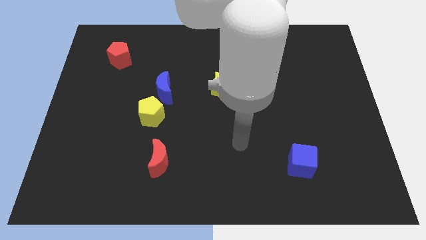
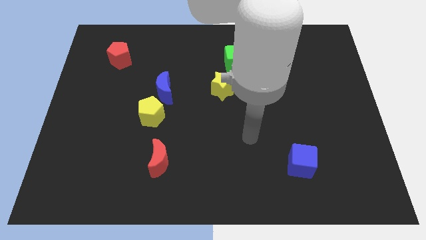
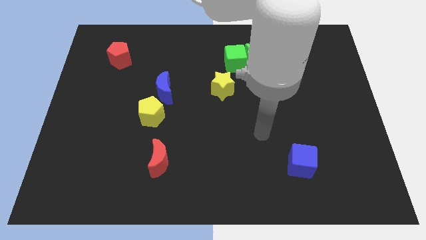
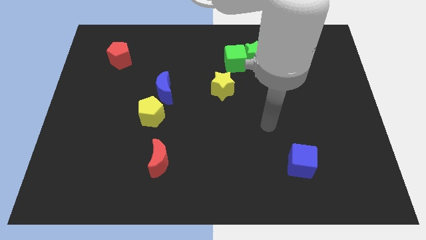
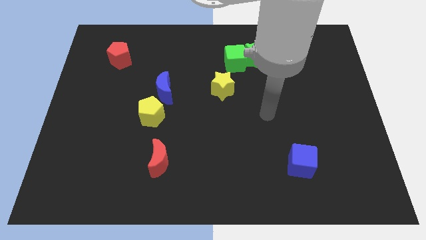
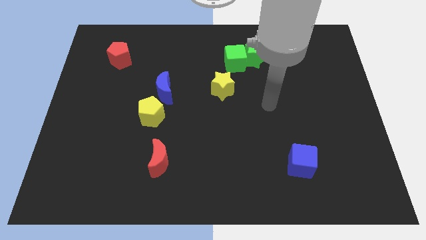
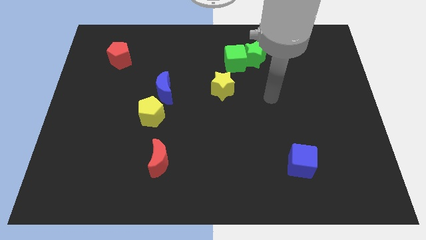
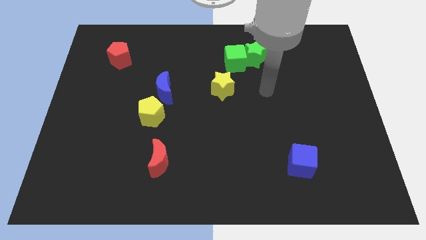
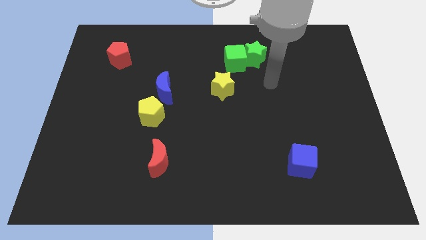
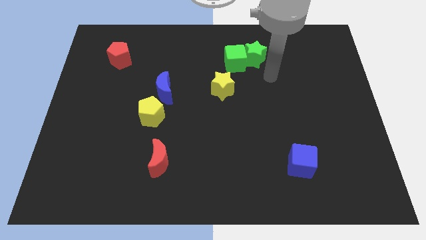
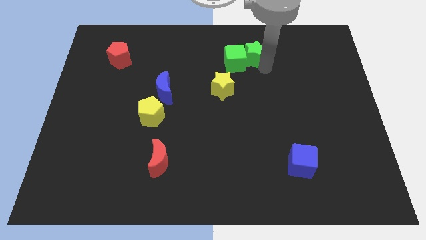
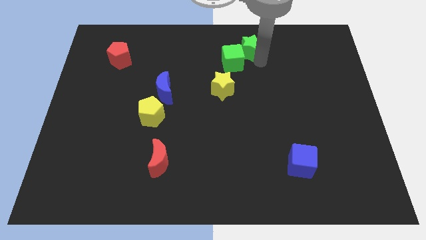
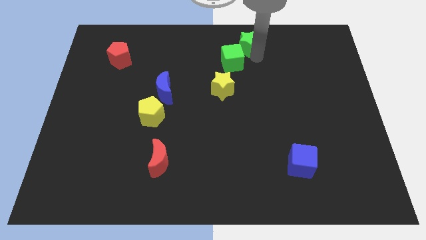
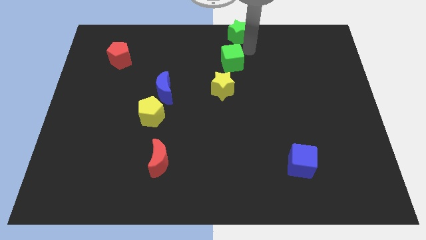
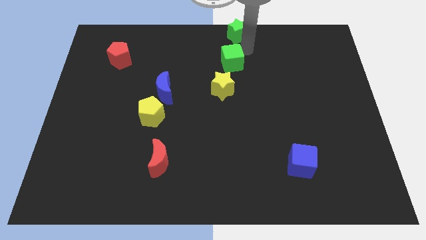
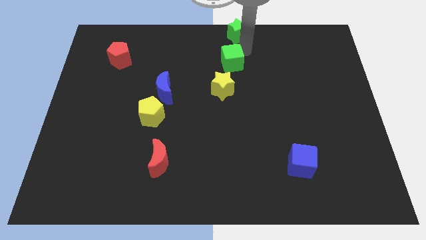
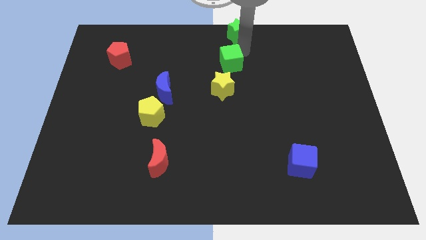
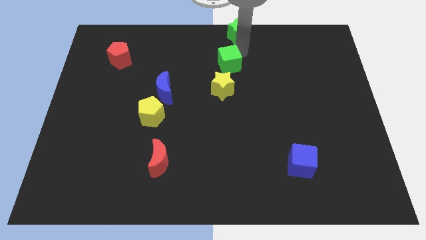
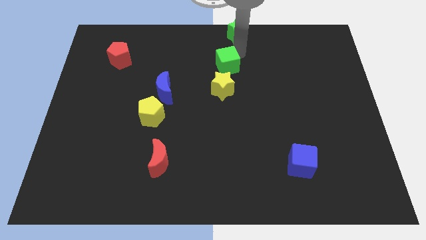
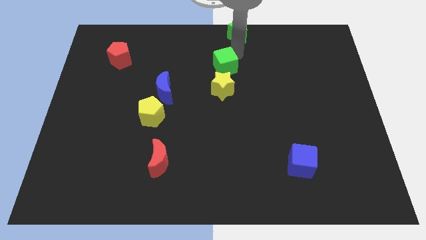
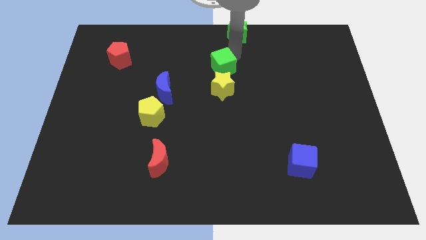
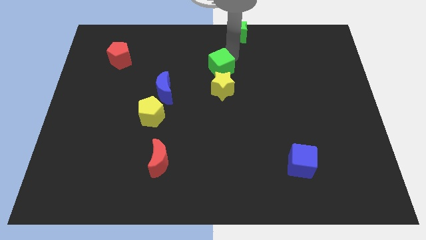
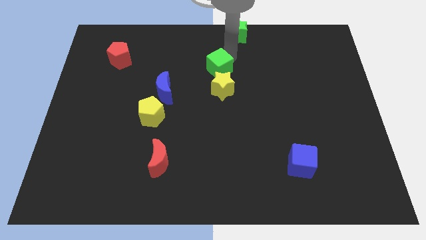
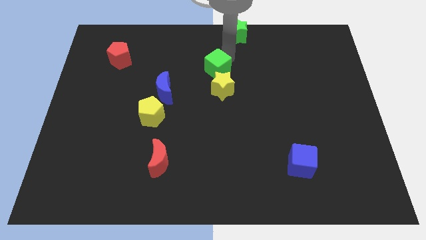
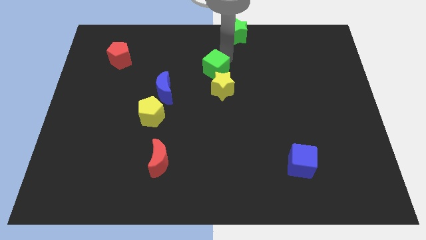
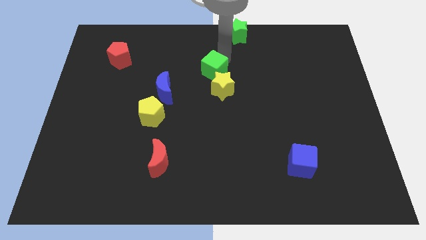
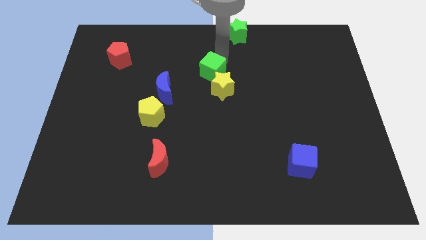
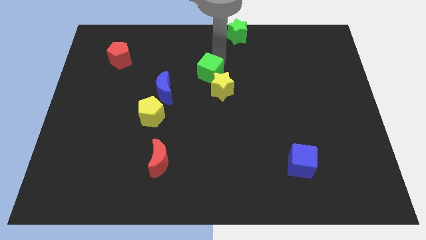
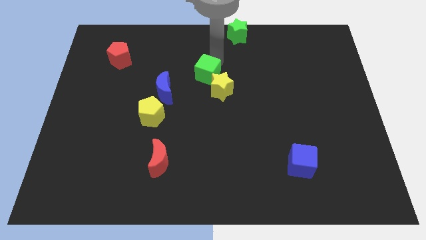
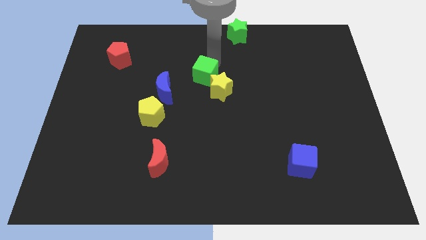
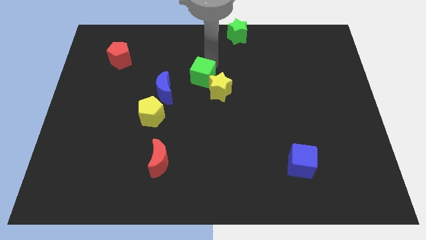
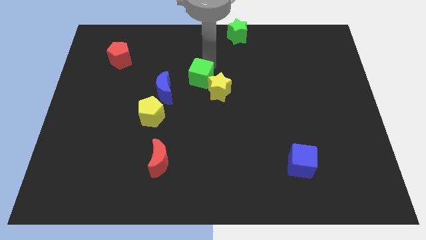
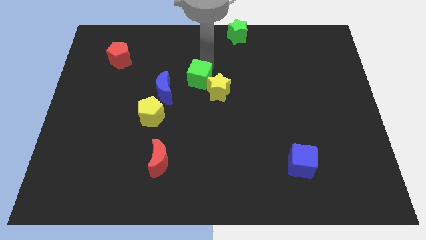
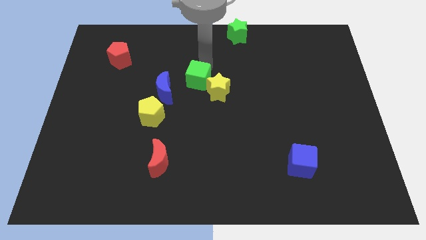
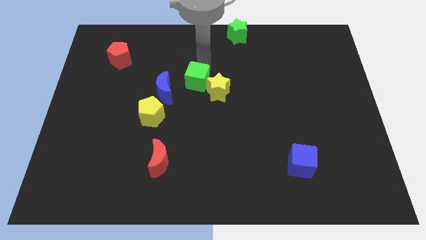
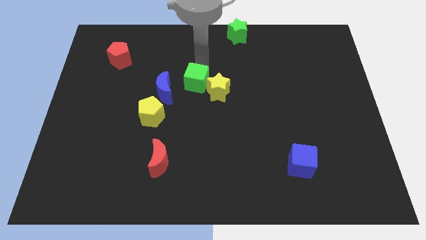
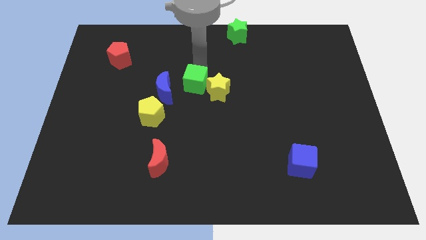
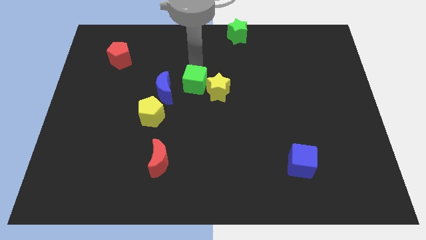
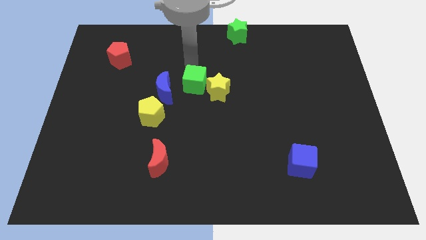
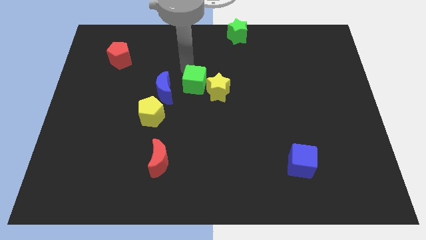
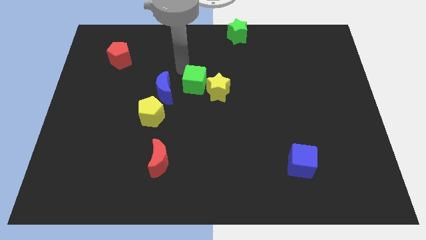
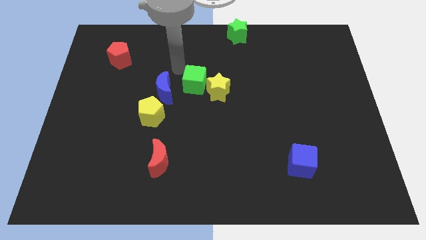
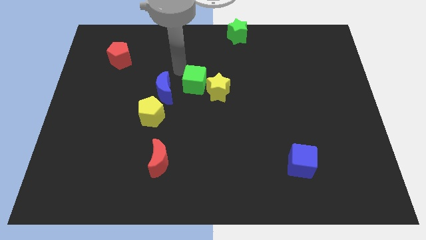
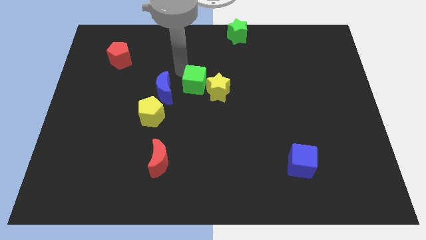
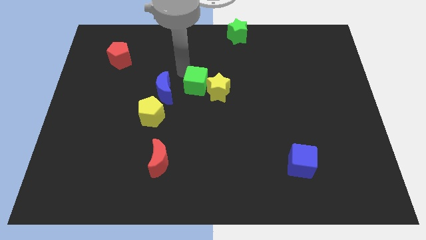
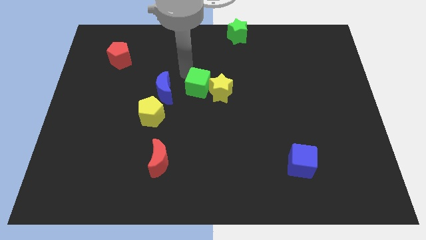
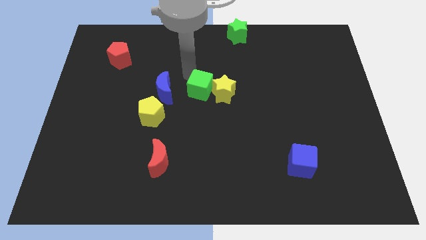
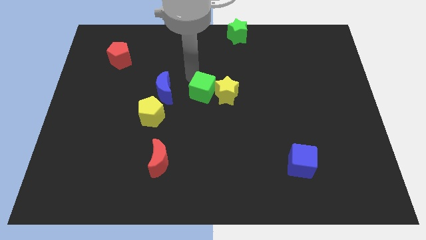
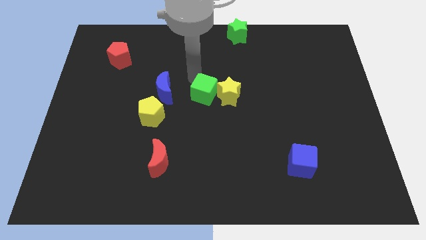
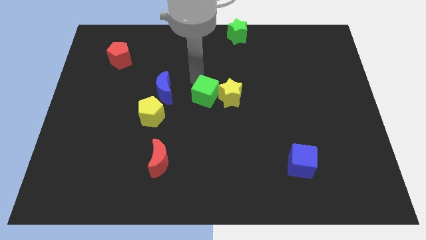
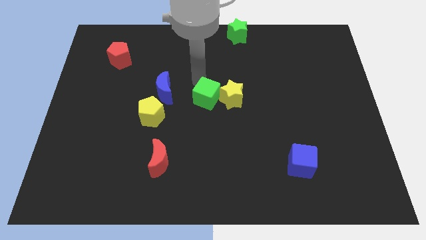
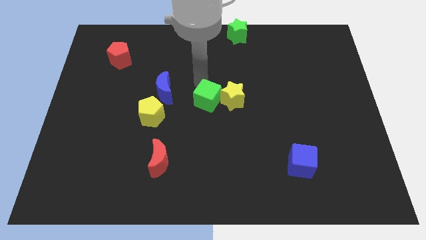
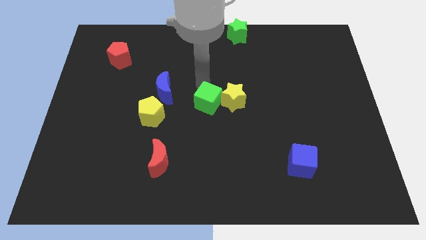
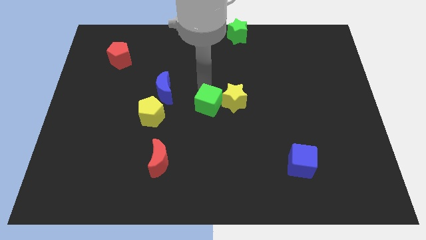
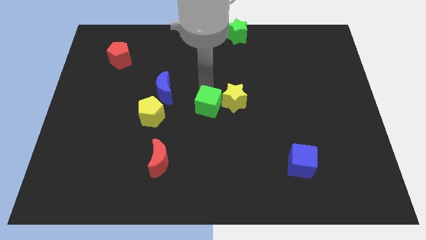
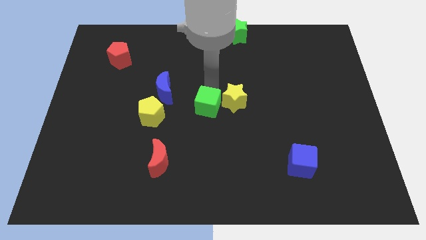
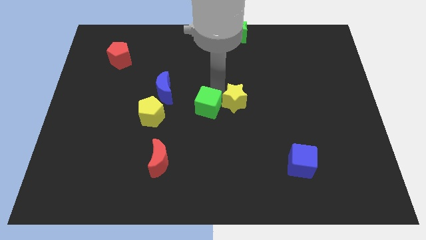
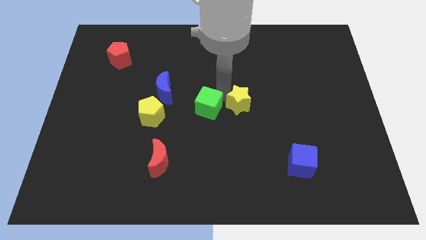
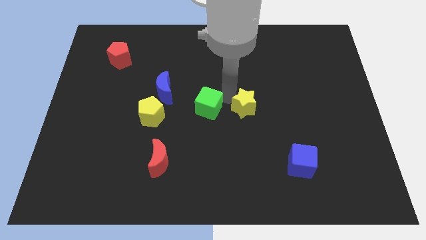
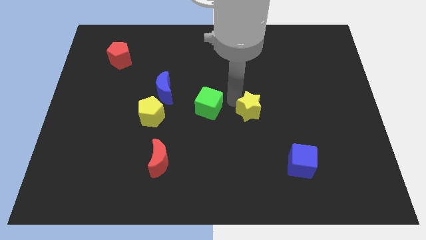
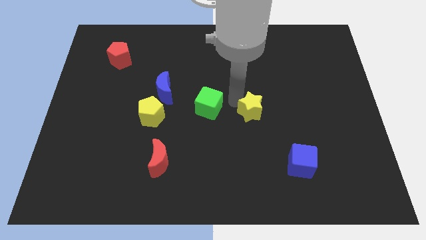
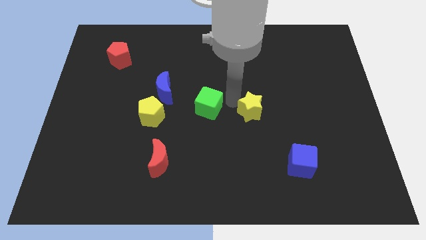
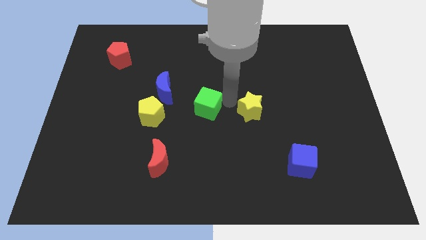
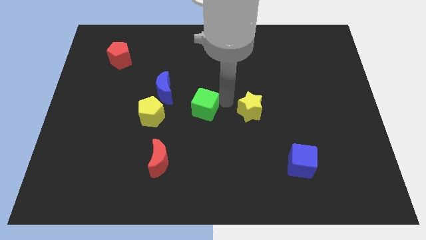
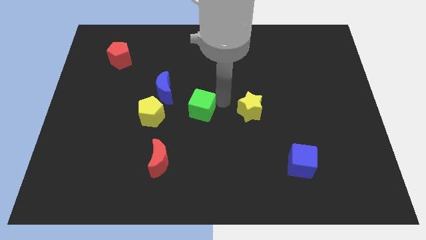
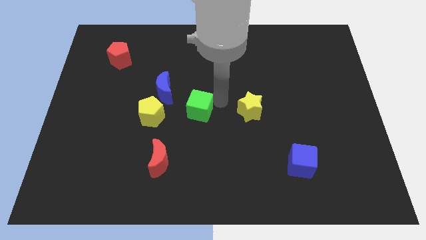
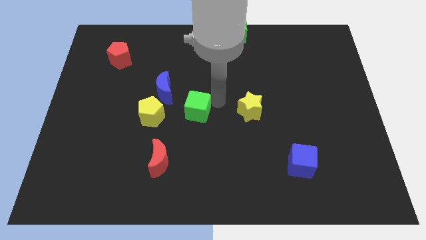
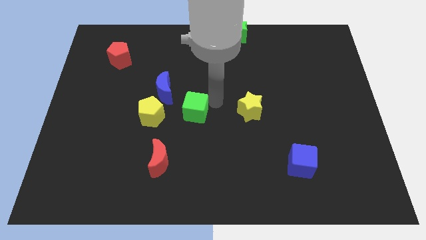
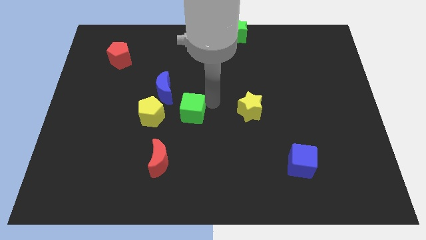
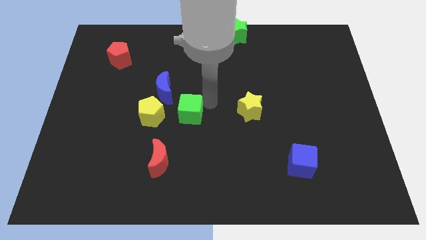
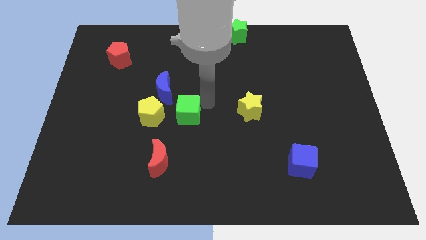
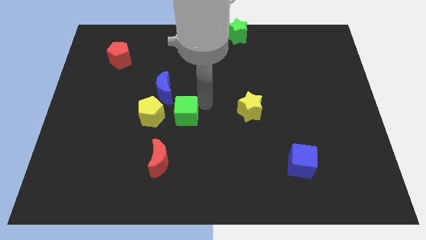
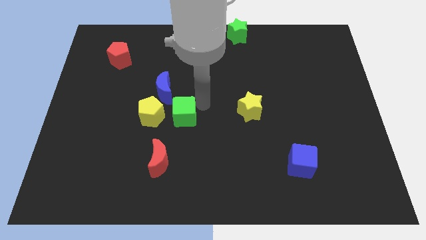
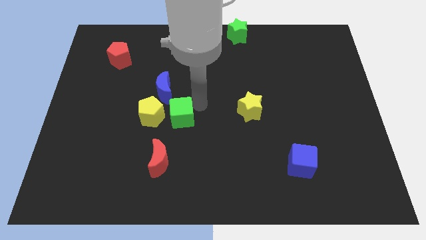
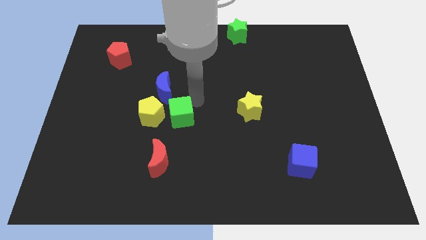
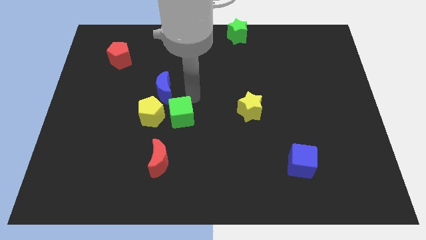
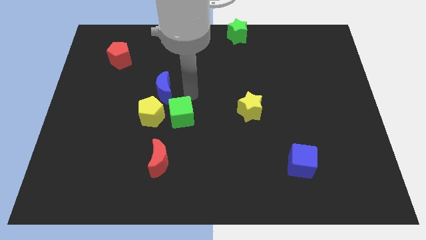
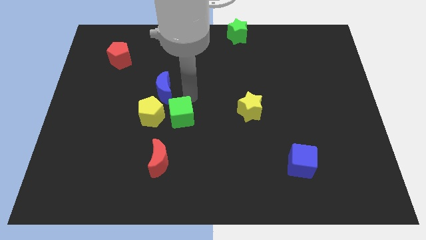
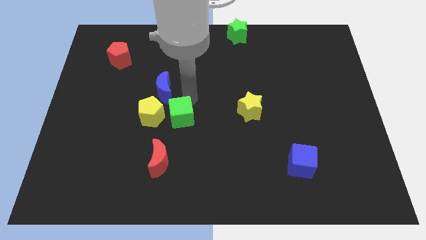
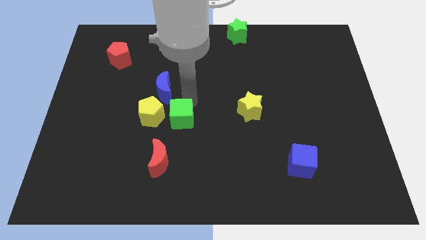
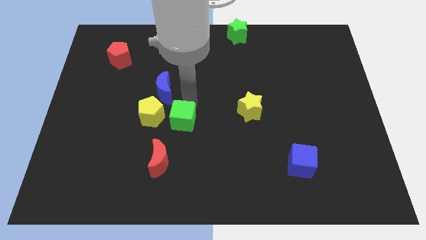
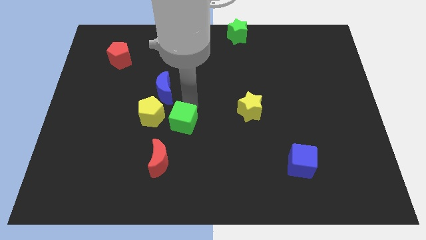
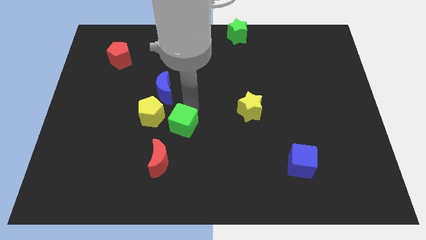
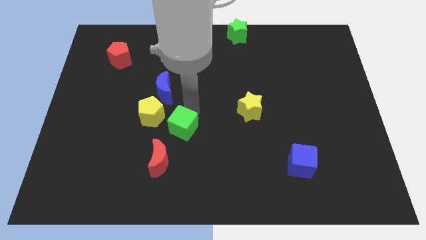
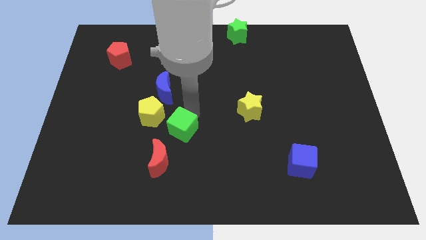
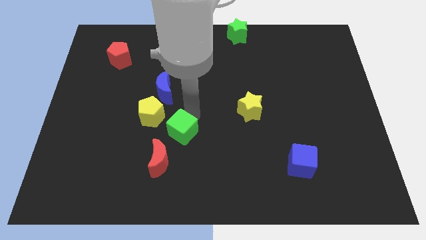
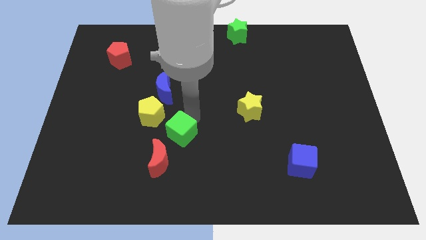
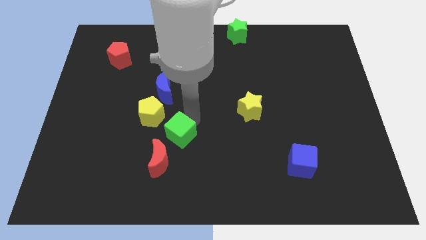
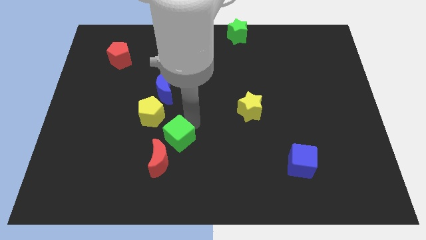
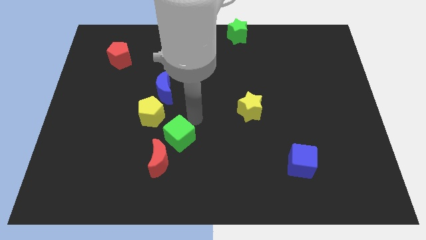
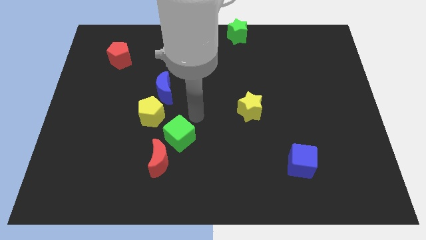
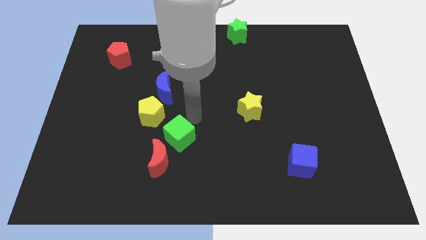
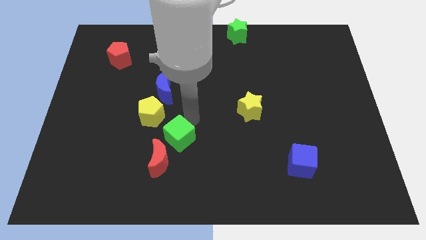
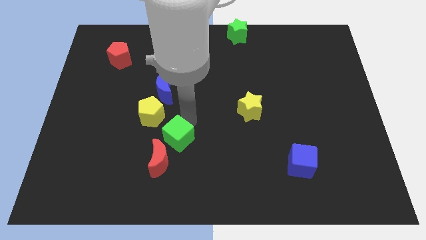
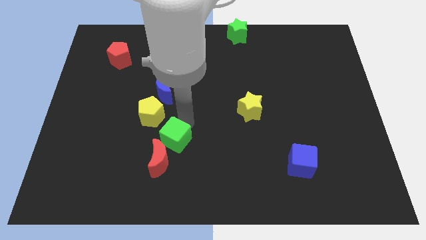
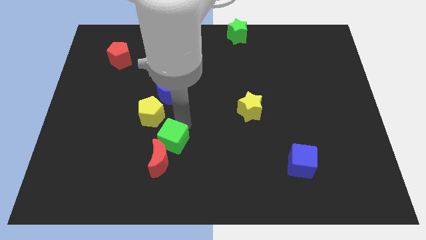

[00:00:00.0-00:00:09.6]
put the green cube towards the red moon
